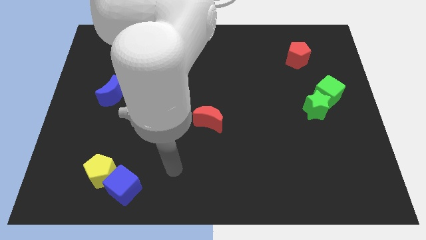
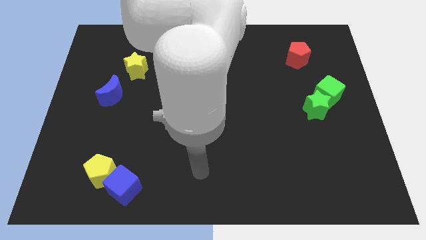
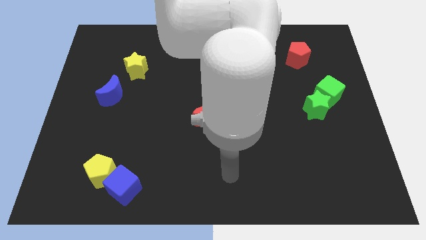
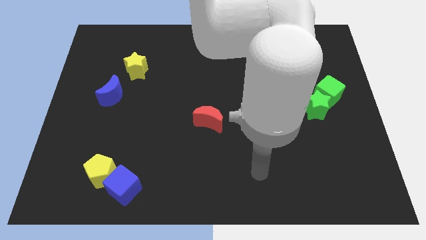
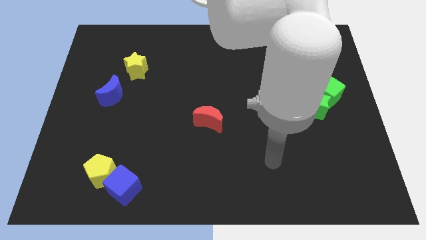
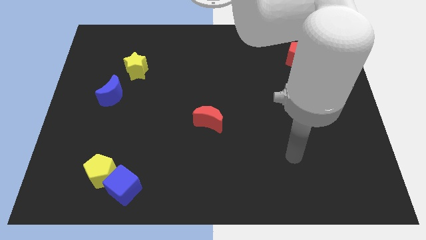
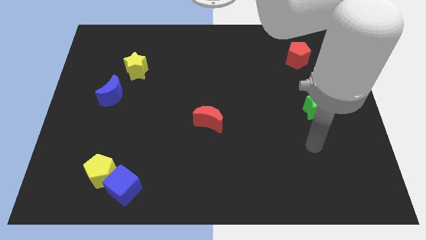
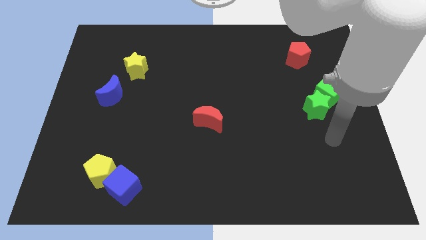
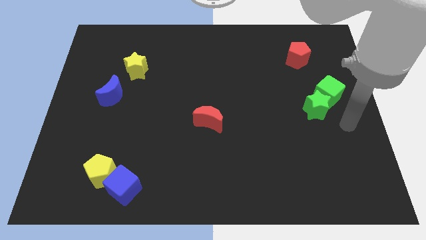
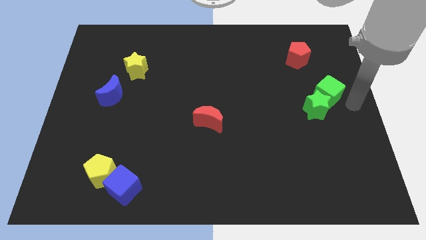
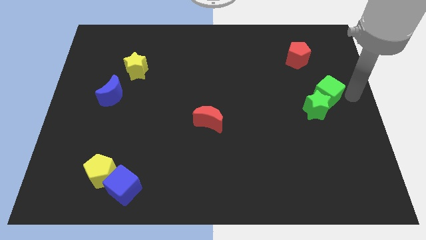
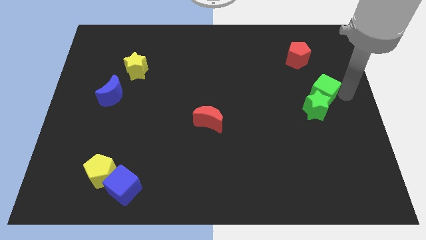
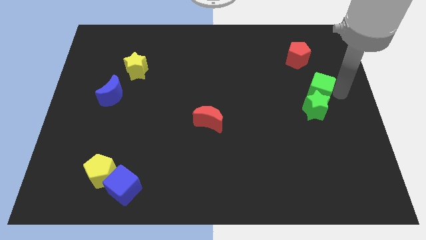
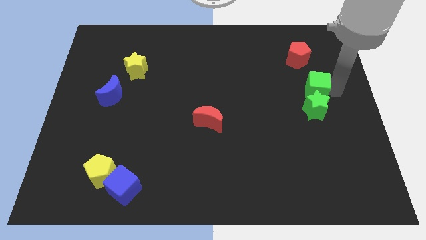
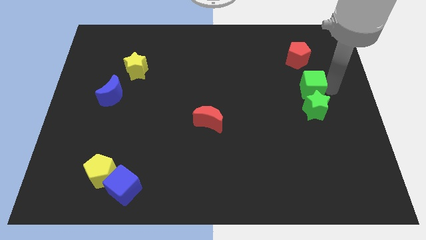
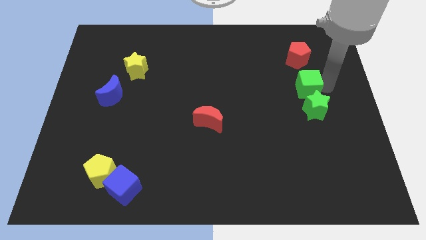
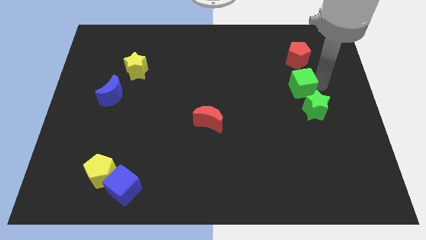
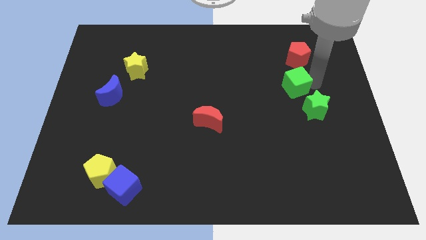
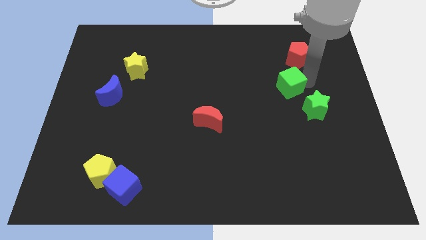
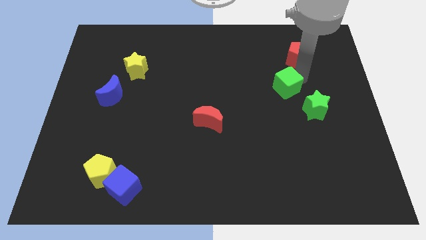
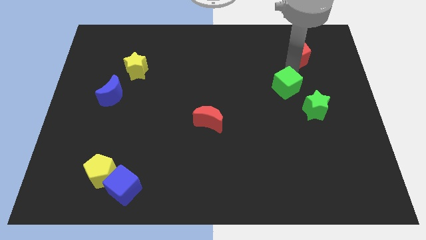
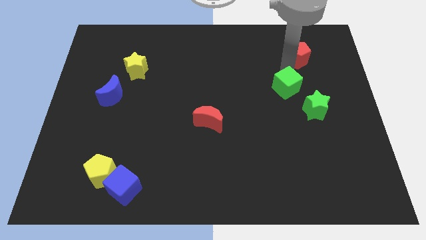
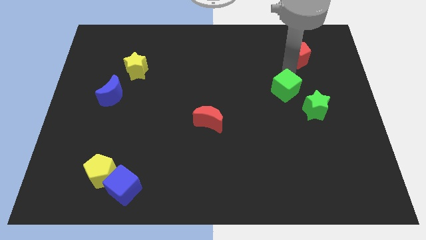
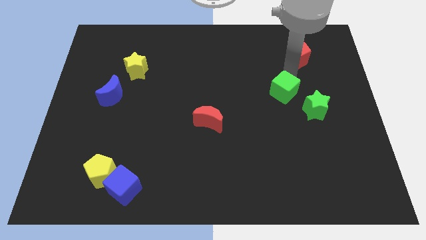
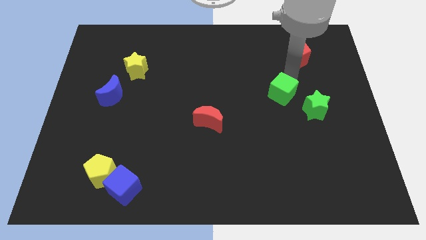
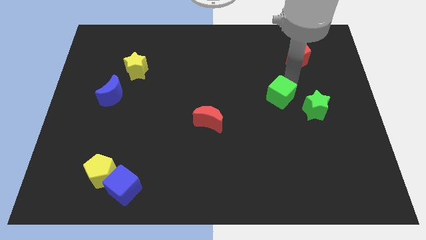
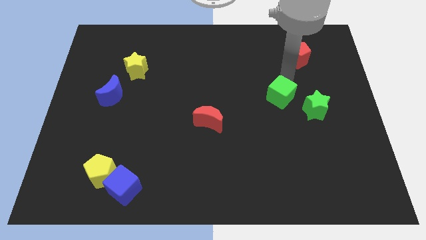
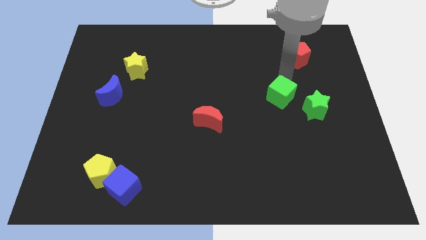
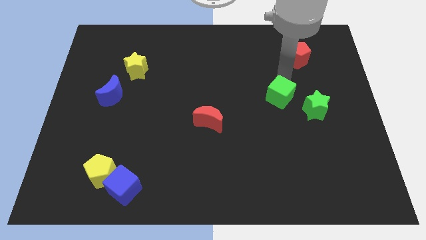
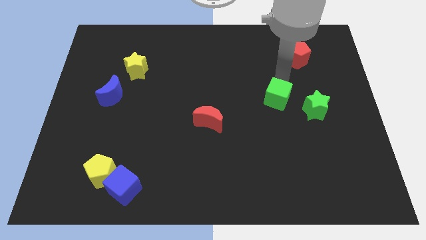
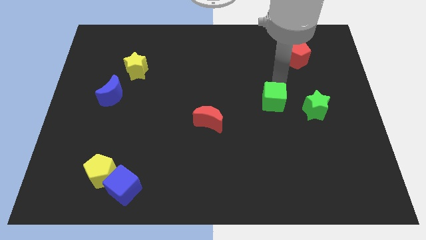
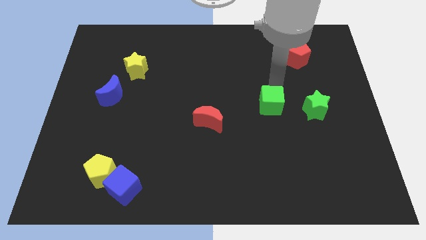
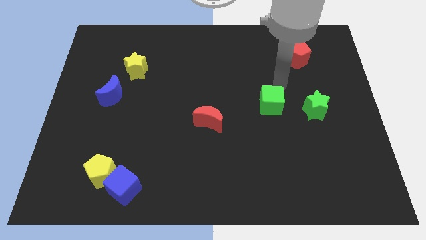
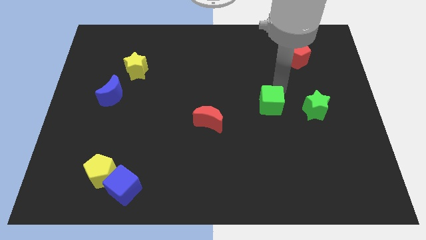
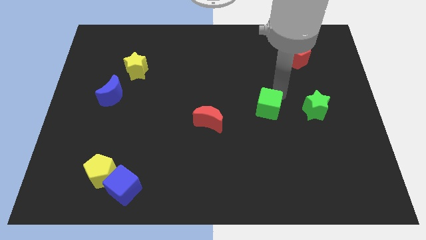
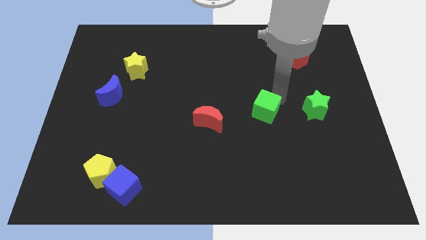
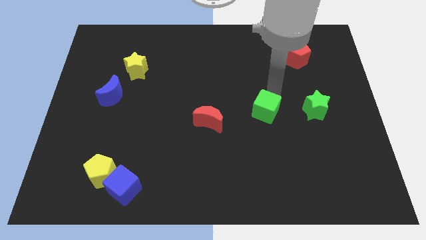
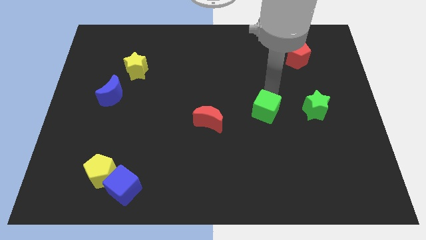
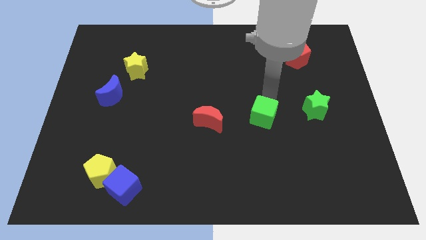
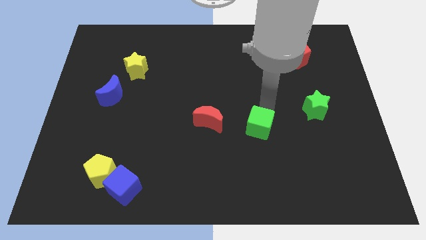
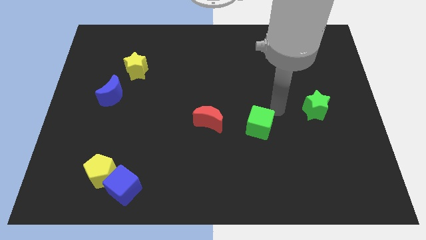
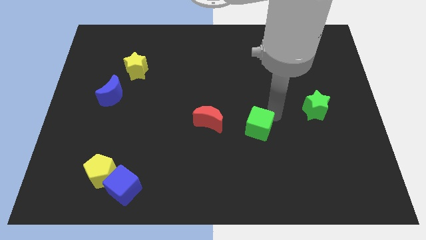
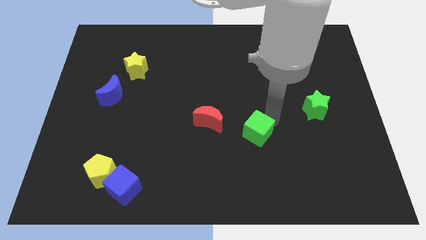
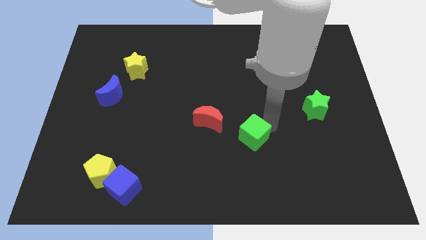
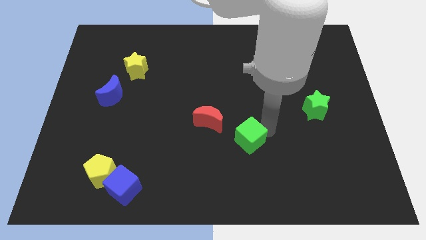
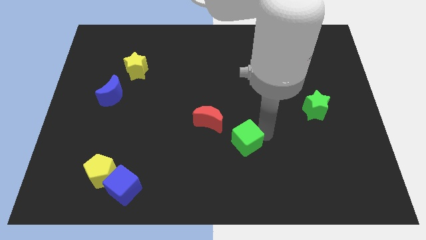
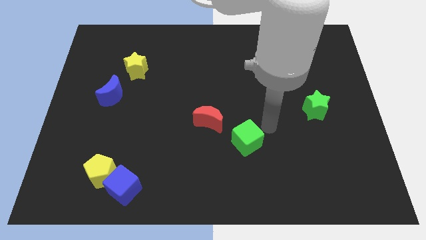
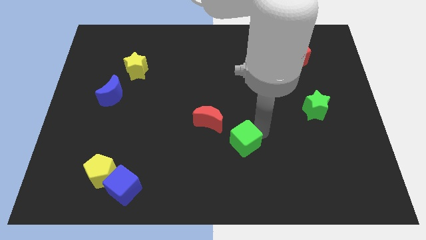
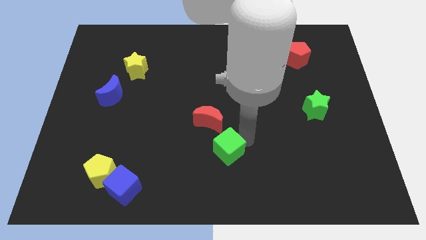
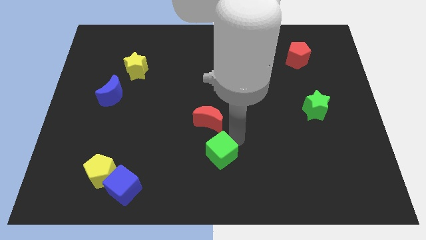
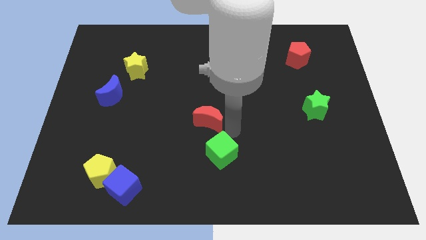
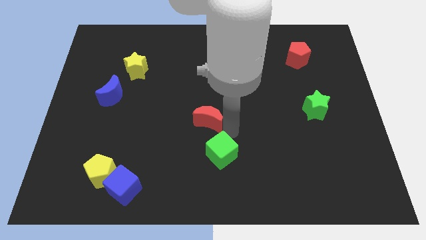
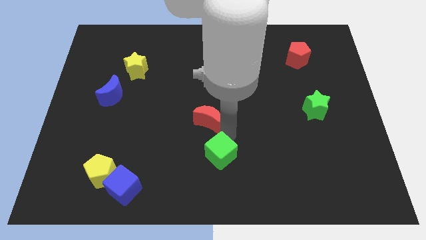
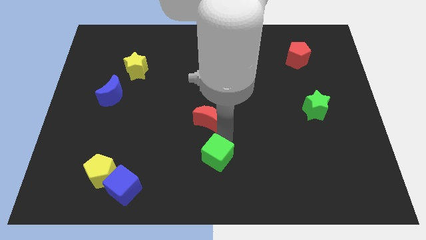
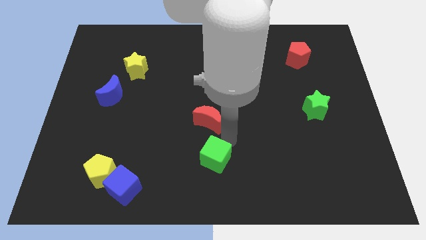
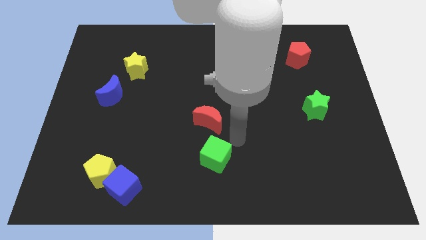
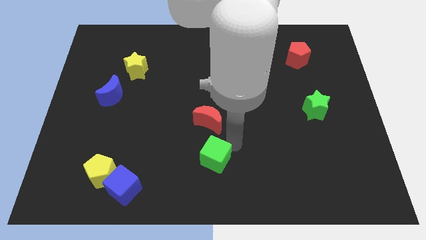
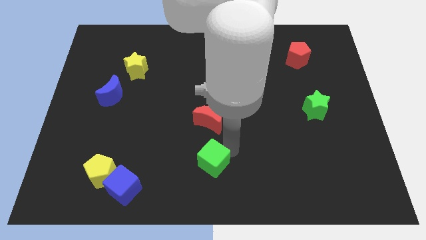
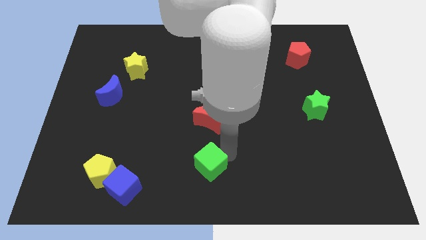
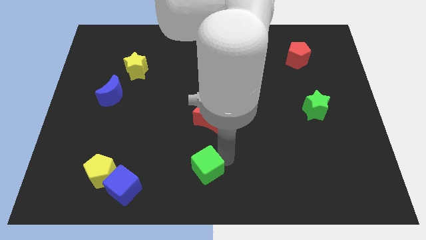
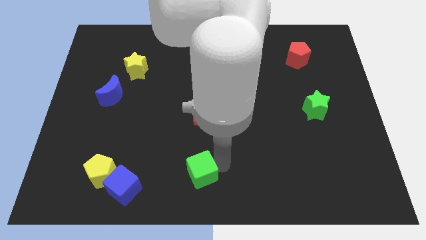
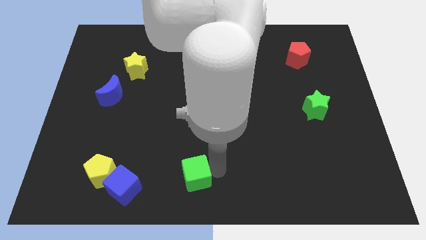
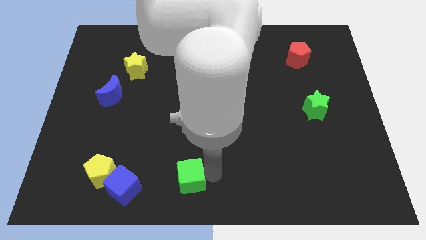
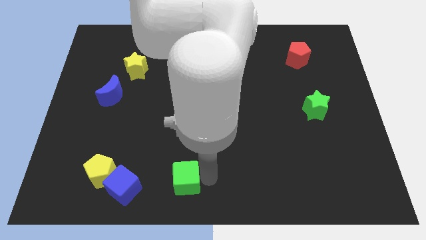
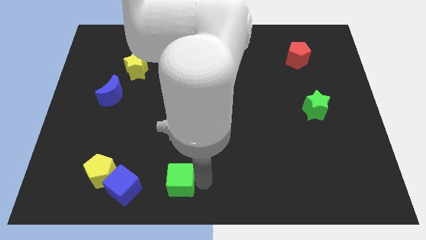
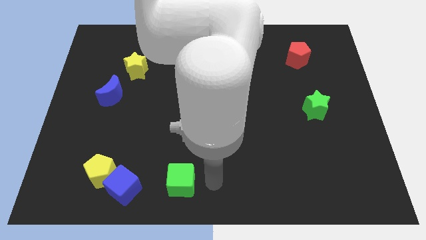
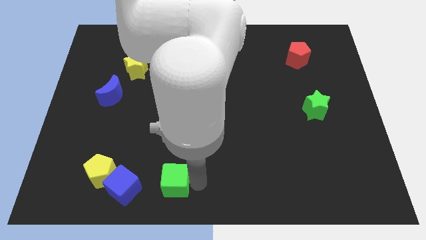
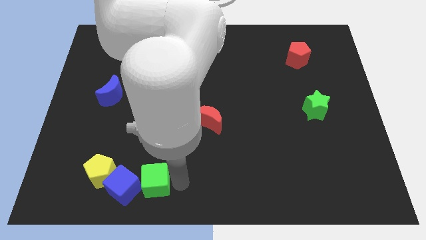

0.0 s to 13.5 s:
push the green cube close to the blue cube

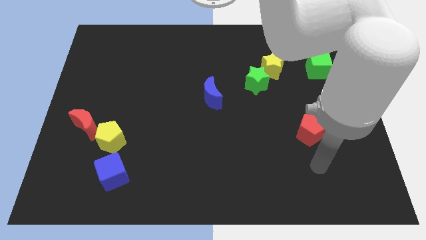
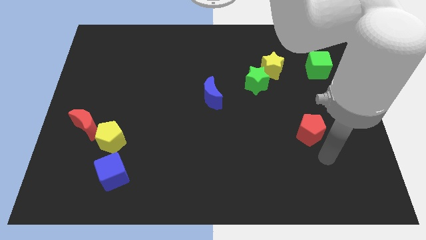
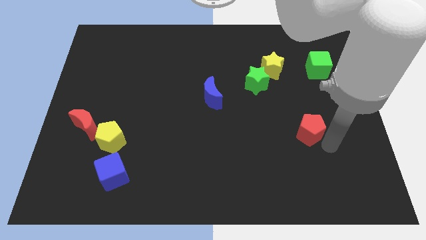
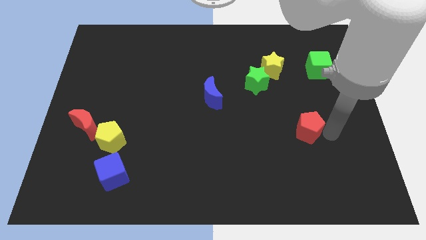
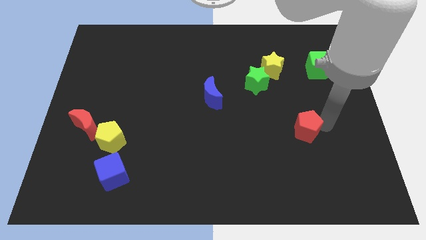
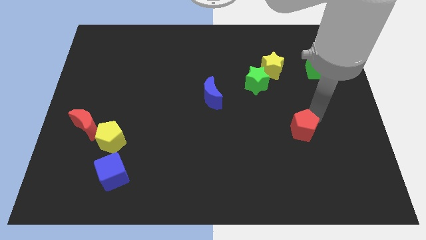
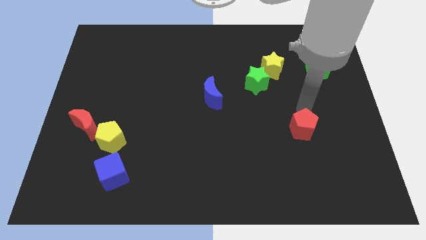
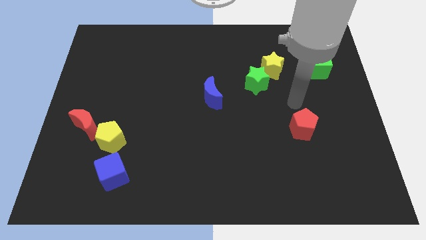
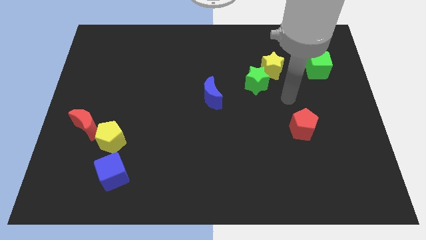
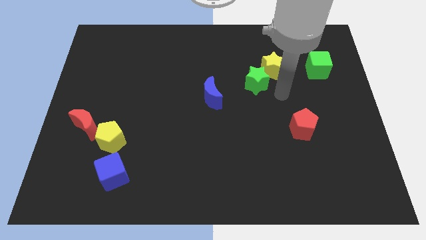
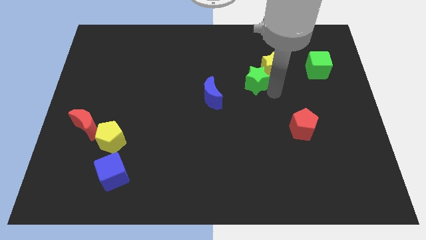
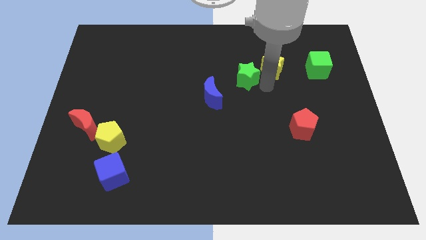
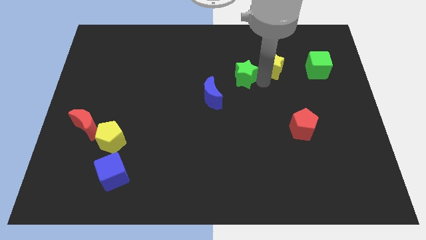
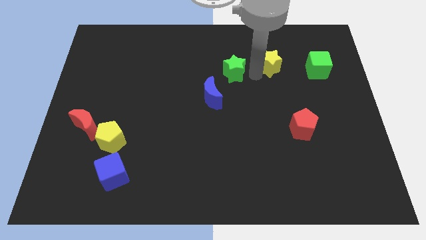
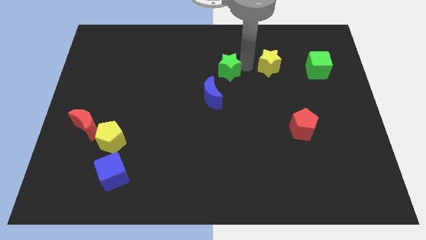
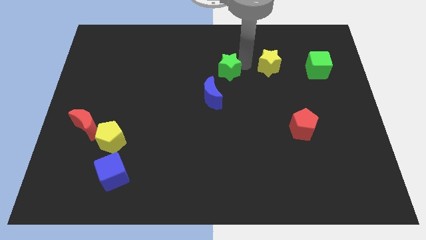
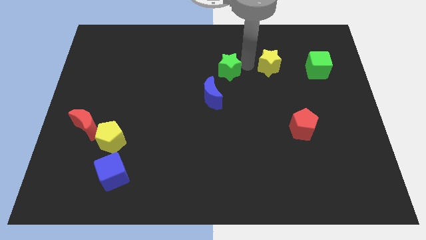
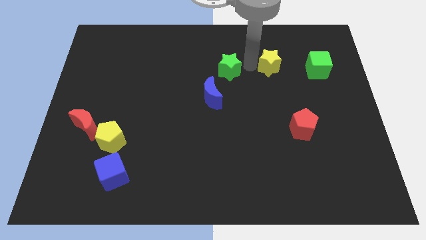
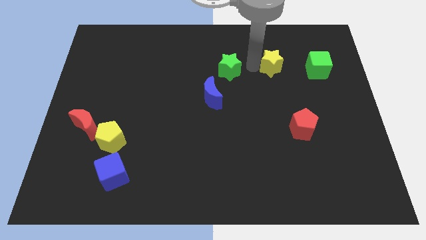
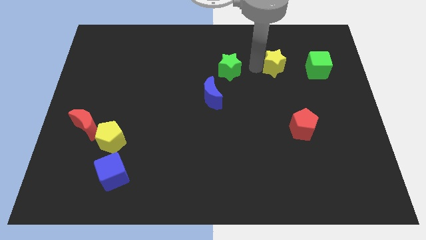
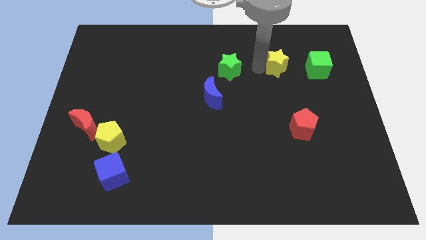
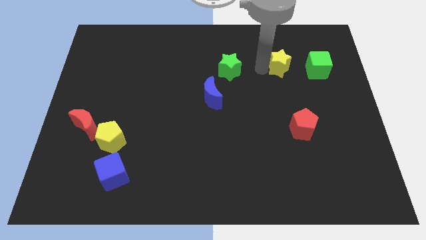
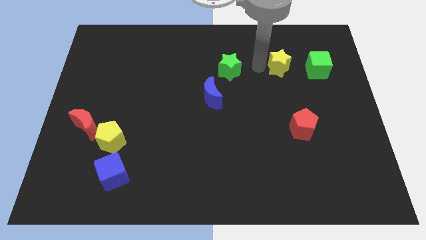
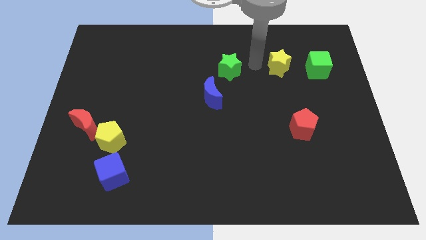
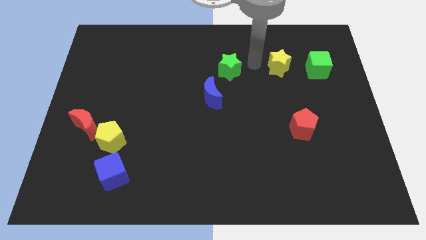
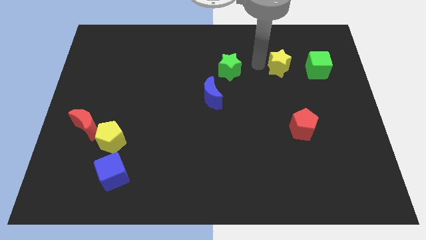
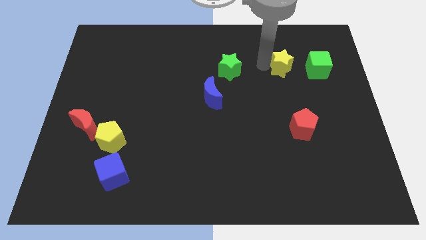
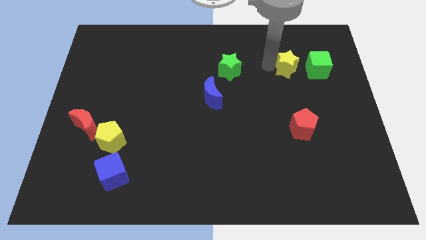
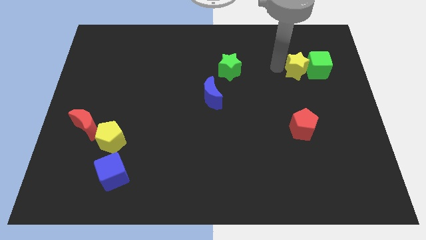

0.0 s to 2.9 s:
push the yellow star close to the green cube
